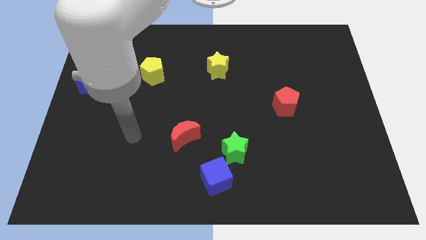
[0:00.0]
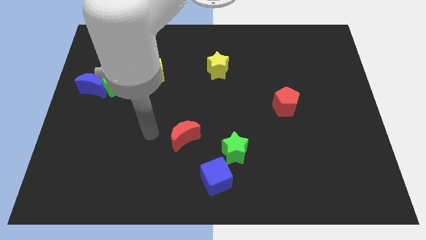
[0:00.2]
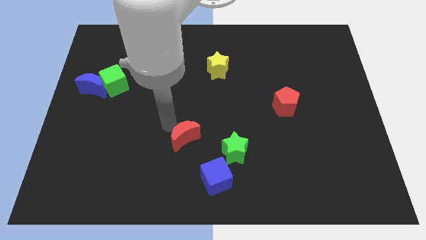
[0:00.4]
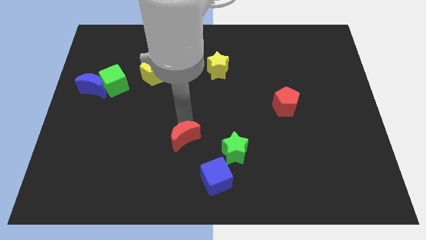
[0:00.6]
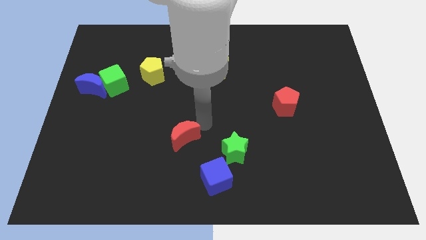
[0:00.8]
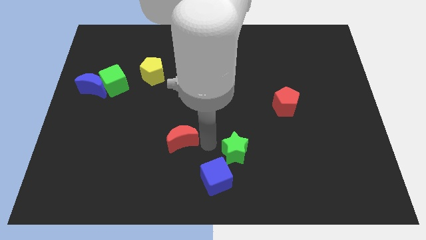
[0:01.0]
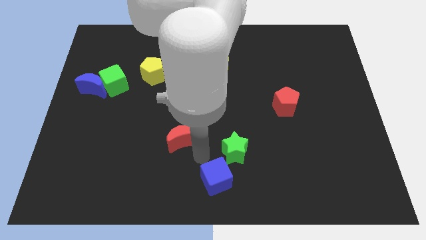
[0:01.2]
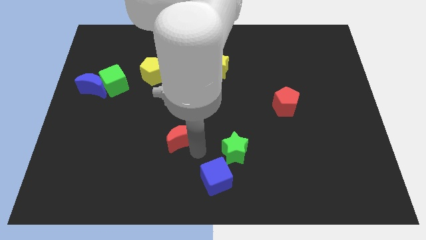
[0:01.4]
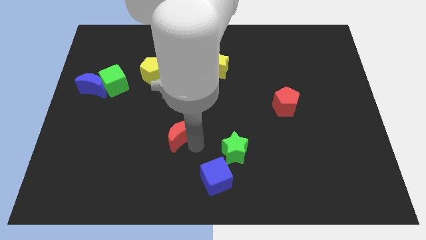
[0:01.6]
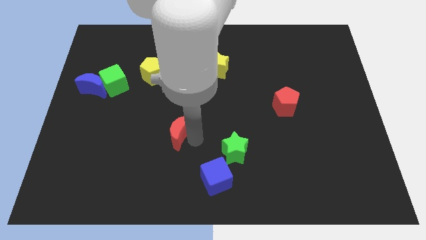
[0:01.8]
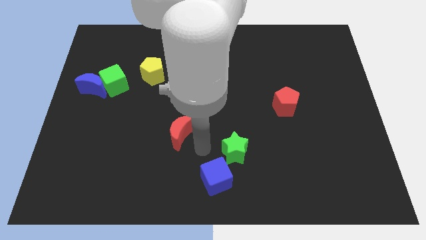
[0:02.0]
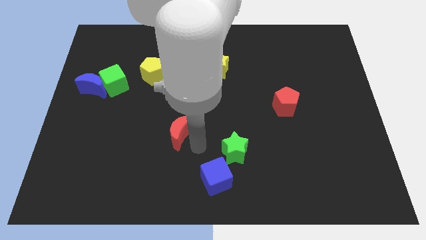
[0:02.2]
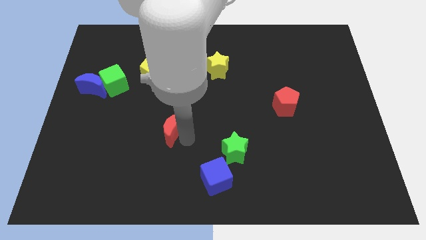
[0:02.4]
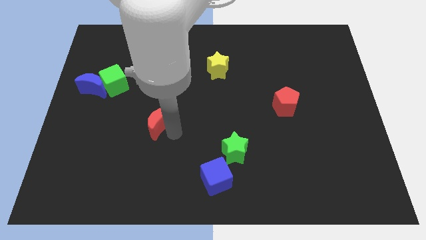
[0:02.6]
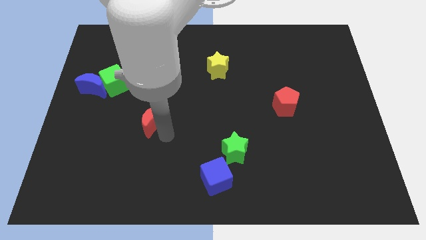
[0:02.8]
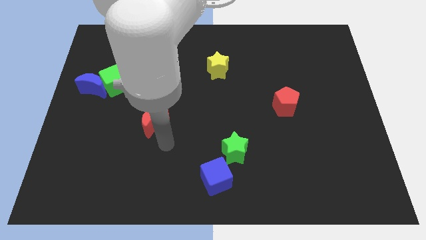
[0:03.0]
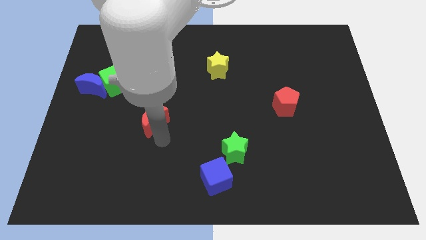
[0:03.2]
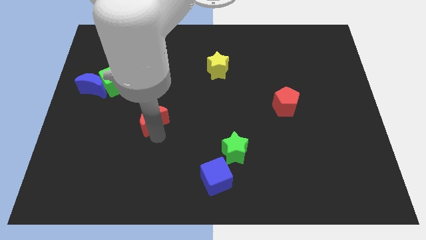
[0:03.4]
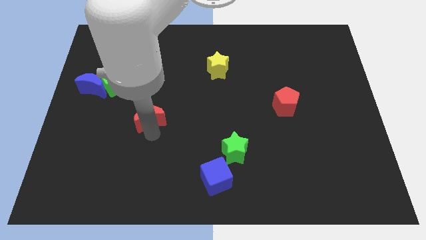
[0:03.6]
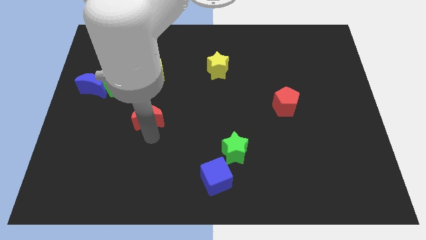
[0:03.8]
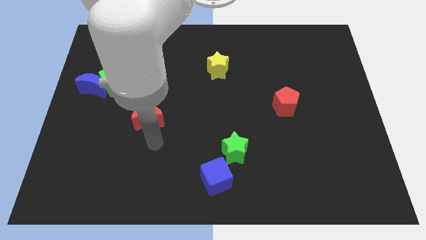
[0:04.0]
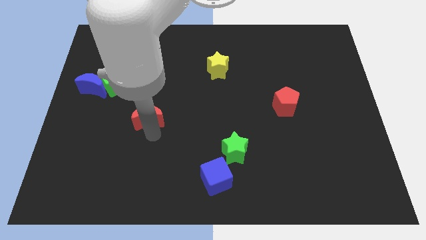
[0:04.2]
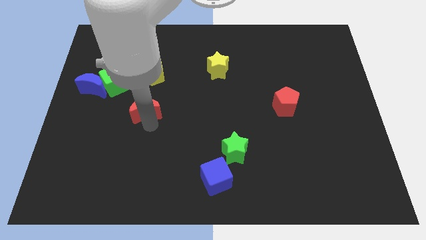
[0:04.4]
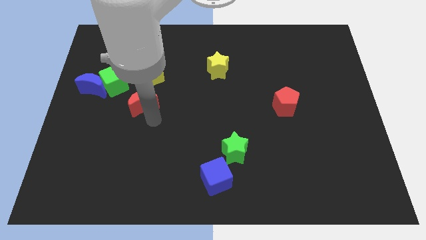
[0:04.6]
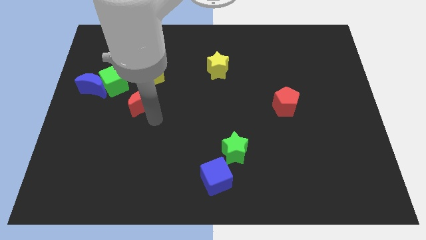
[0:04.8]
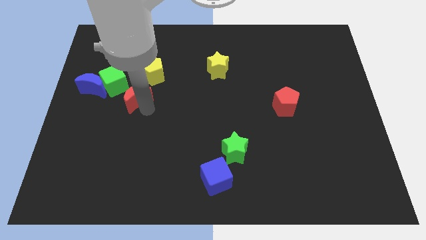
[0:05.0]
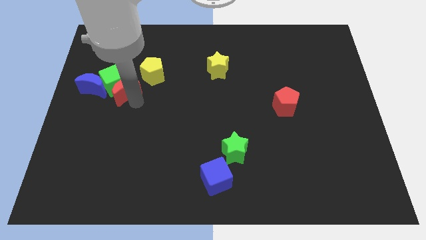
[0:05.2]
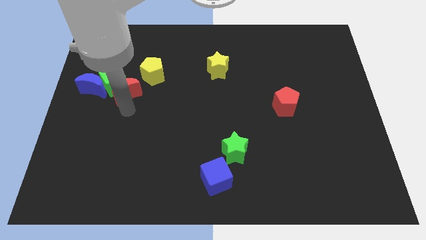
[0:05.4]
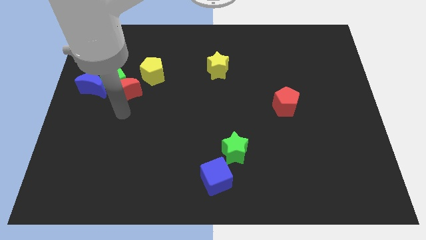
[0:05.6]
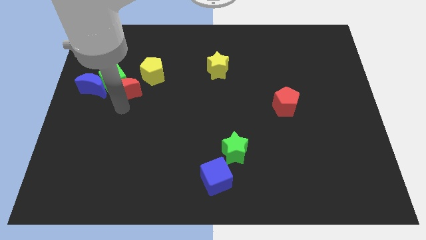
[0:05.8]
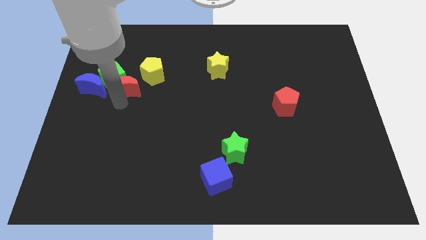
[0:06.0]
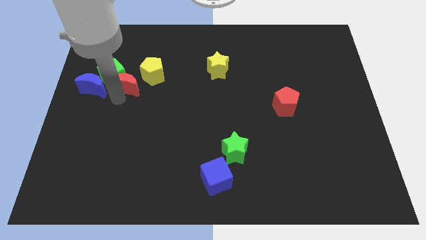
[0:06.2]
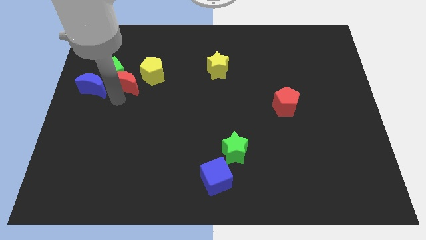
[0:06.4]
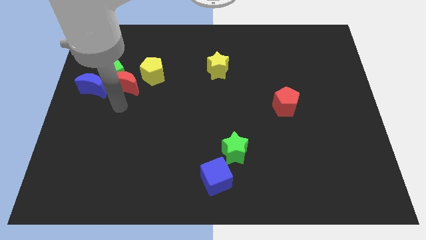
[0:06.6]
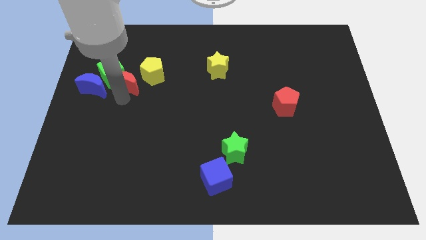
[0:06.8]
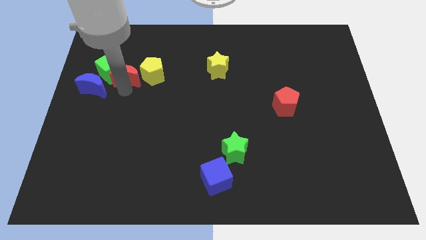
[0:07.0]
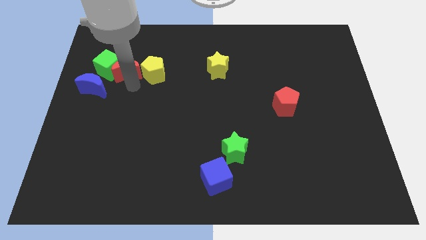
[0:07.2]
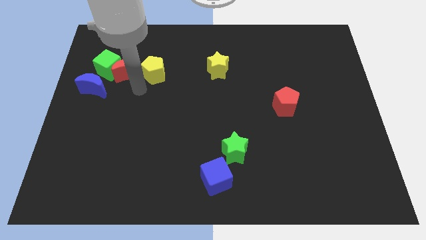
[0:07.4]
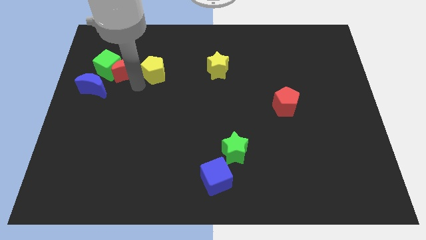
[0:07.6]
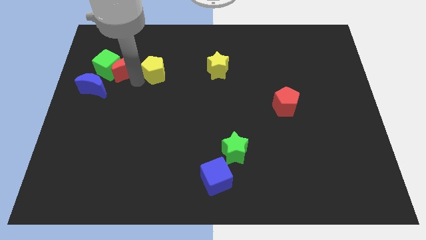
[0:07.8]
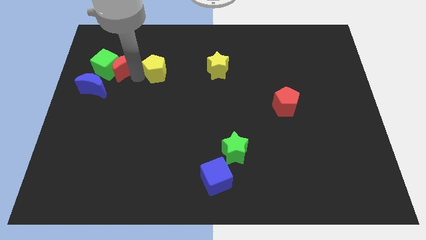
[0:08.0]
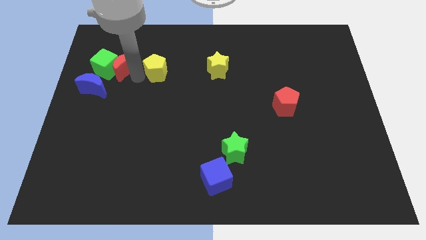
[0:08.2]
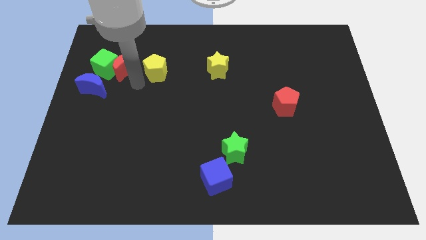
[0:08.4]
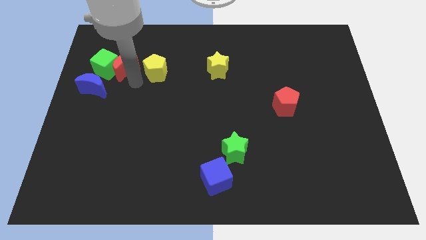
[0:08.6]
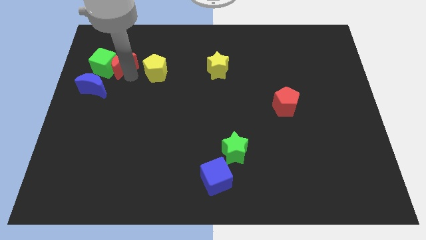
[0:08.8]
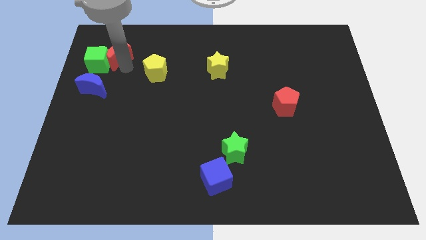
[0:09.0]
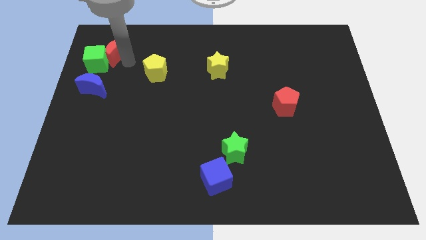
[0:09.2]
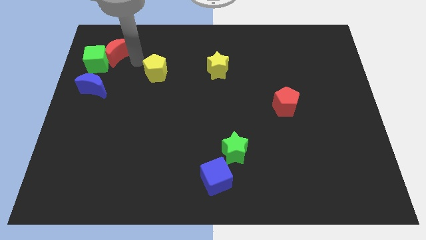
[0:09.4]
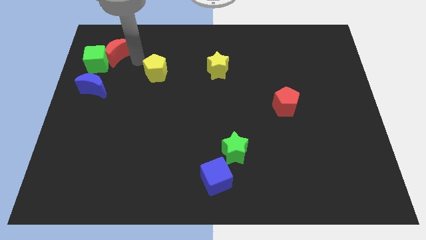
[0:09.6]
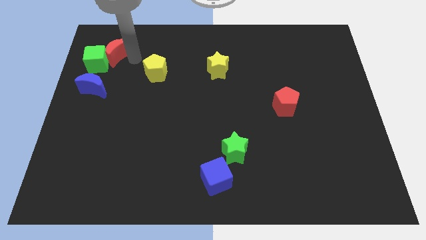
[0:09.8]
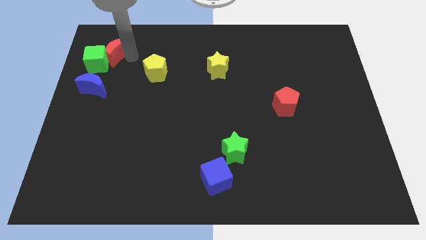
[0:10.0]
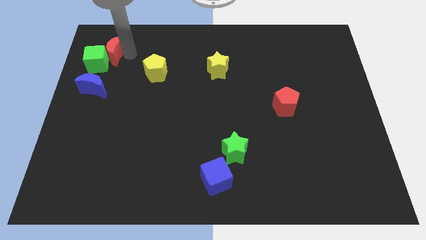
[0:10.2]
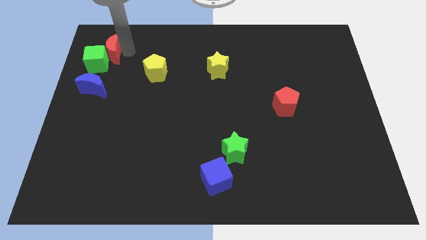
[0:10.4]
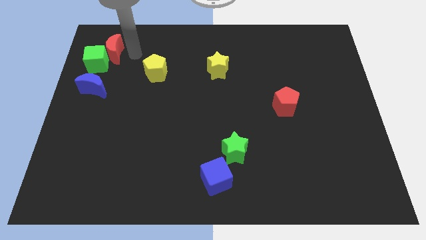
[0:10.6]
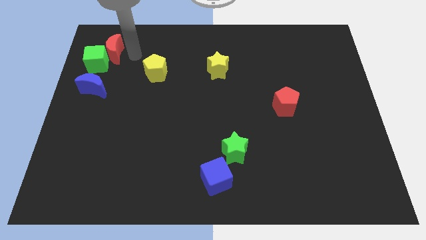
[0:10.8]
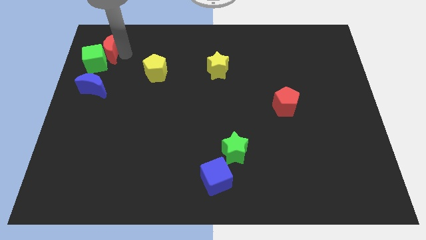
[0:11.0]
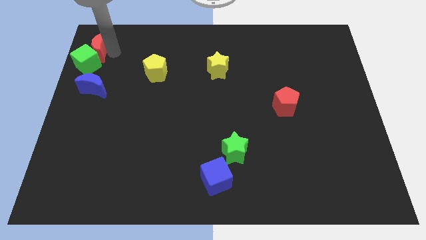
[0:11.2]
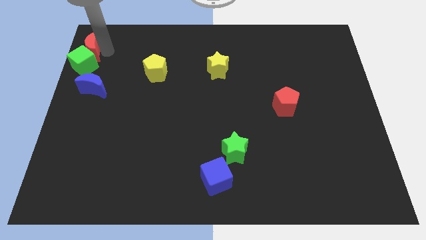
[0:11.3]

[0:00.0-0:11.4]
slide the red moon to the top left

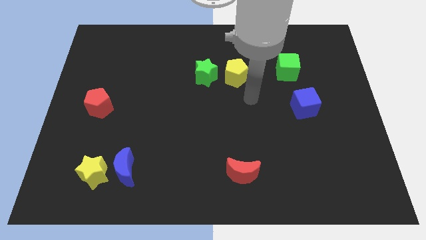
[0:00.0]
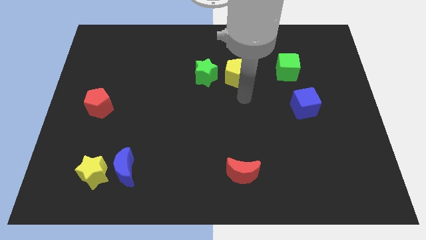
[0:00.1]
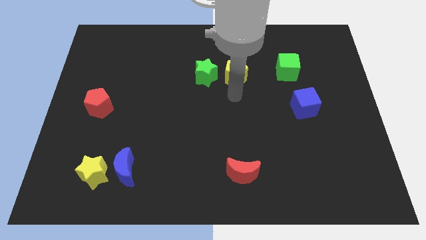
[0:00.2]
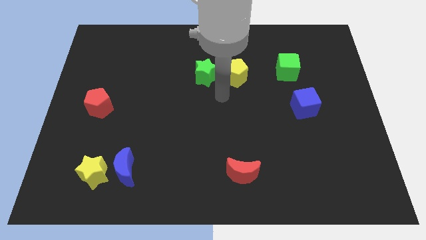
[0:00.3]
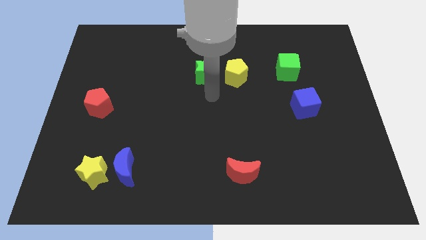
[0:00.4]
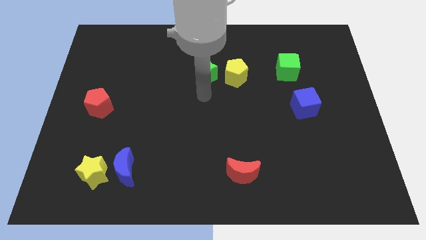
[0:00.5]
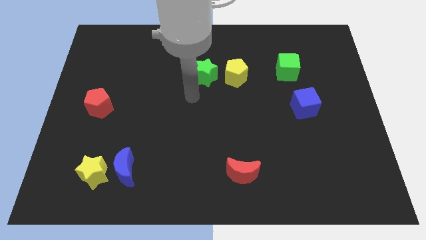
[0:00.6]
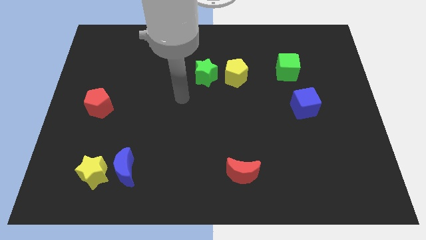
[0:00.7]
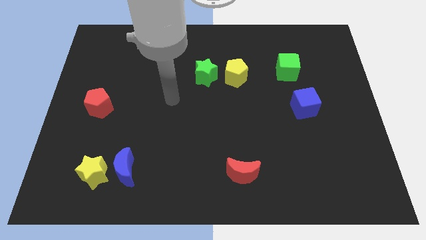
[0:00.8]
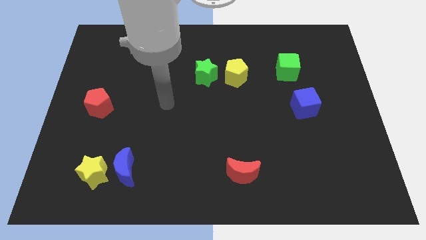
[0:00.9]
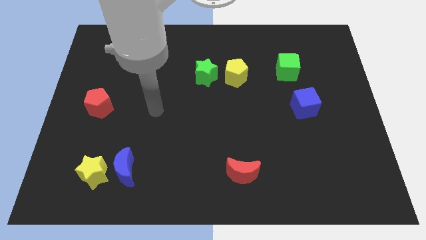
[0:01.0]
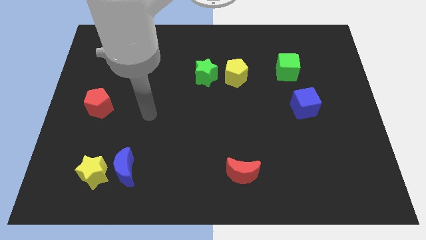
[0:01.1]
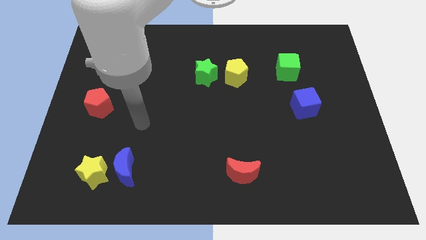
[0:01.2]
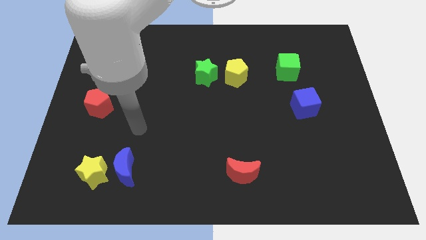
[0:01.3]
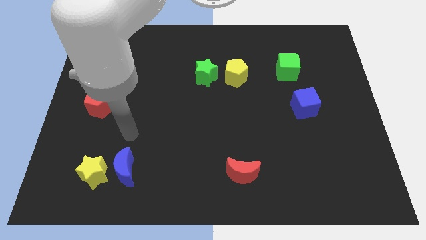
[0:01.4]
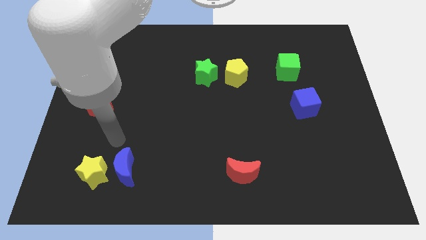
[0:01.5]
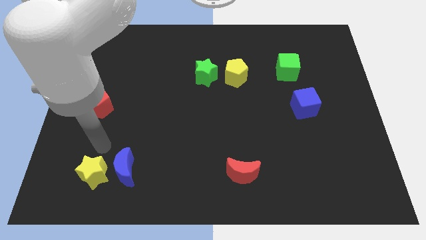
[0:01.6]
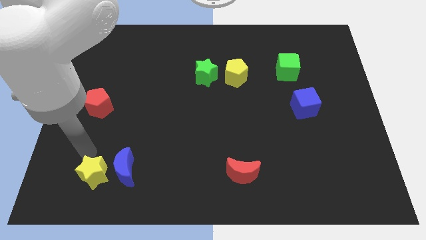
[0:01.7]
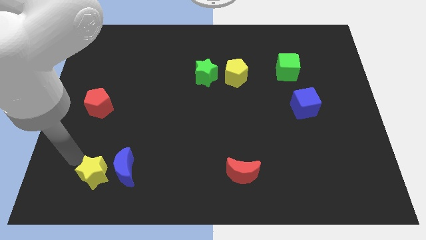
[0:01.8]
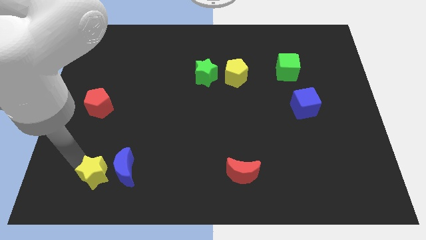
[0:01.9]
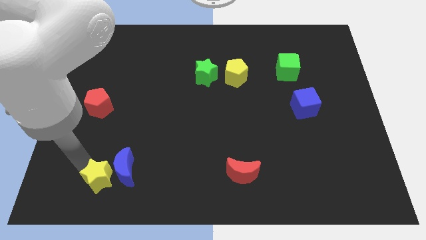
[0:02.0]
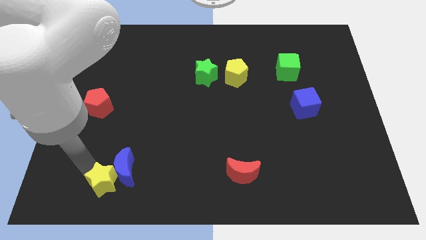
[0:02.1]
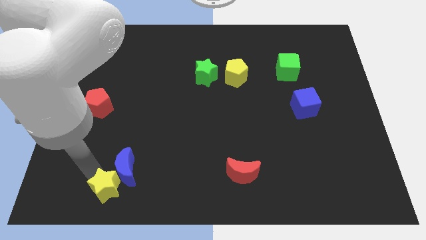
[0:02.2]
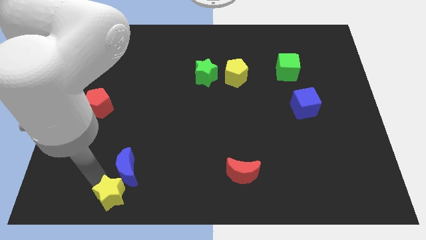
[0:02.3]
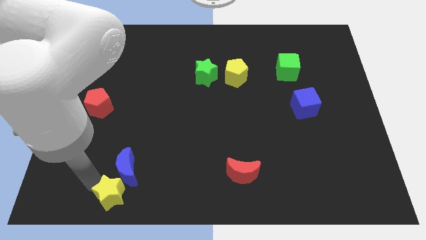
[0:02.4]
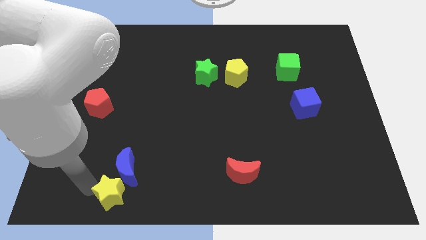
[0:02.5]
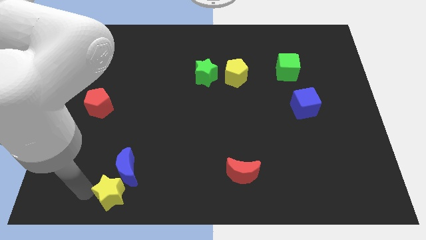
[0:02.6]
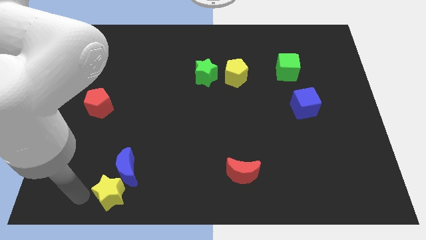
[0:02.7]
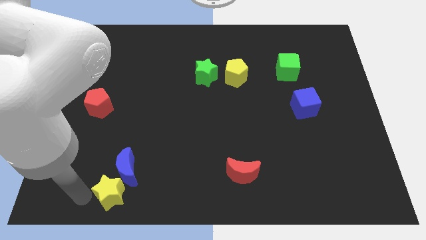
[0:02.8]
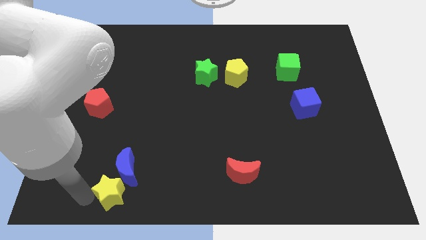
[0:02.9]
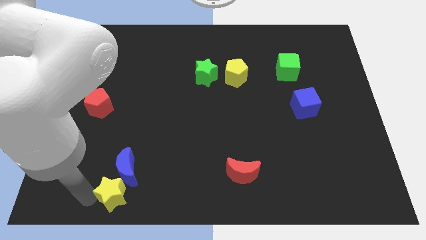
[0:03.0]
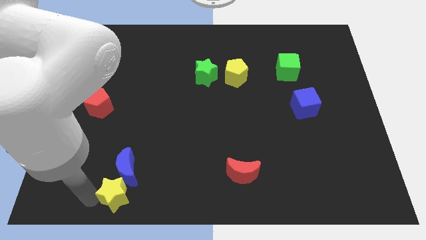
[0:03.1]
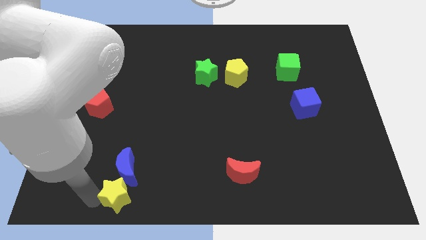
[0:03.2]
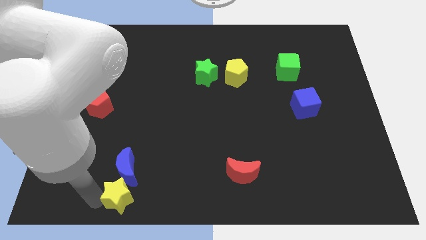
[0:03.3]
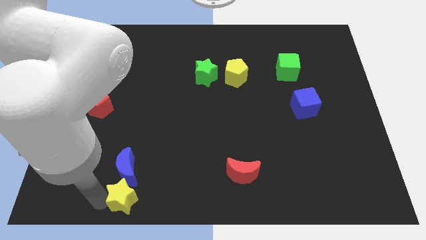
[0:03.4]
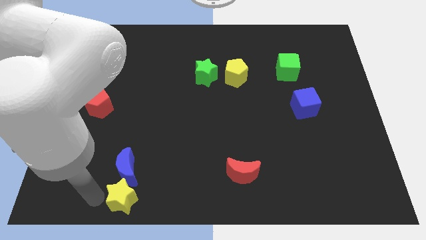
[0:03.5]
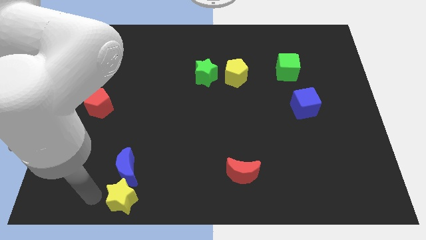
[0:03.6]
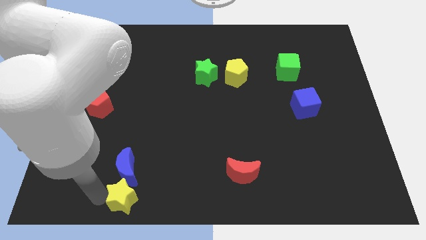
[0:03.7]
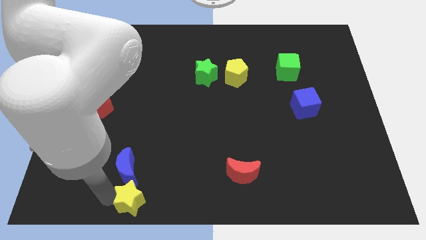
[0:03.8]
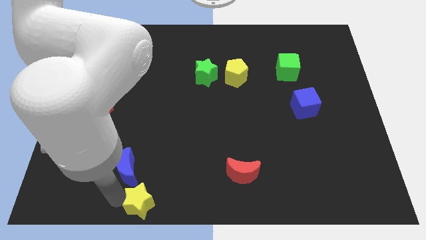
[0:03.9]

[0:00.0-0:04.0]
slide the yellow star to the bottom
